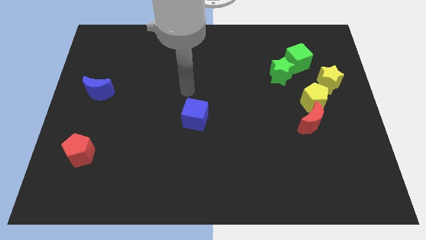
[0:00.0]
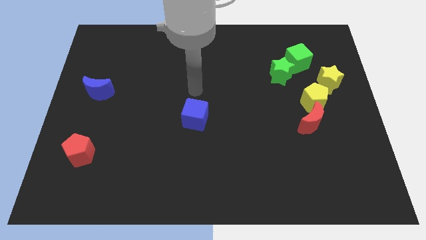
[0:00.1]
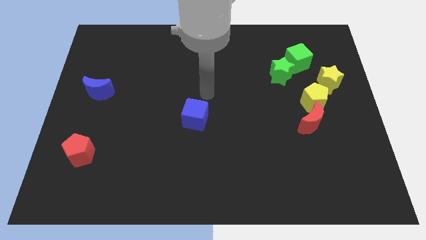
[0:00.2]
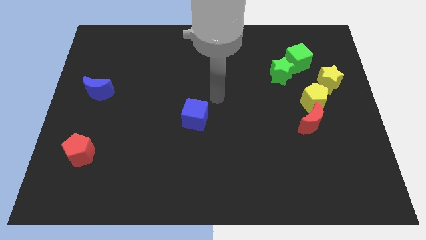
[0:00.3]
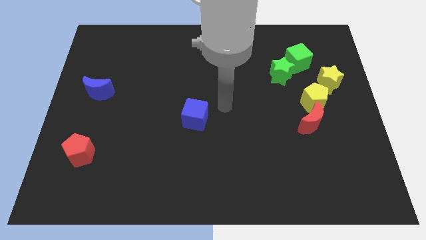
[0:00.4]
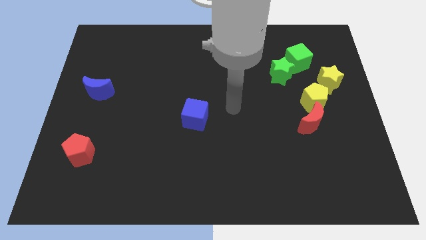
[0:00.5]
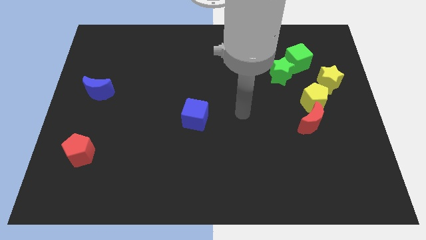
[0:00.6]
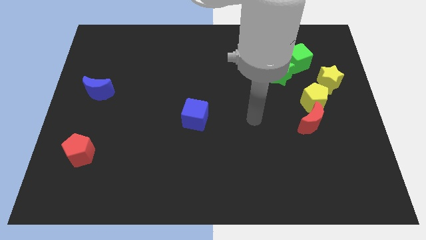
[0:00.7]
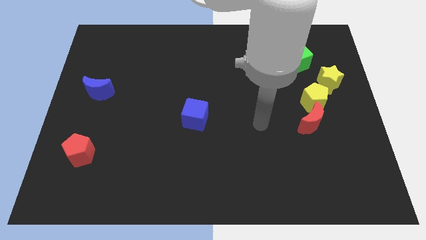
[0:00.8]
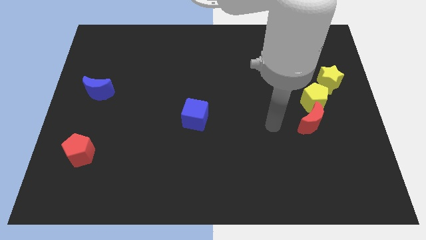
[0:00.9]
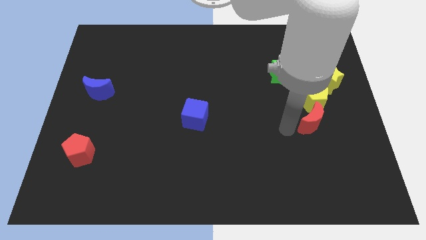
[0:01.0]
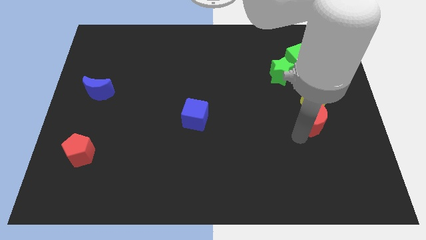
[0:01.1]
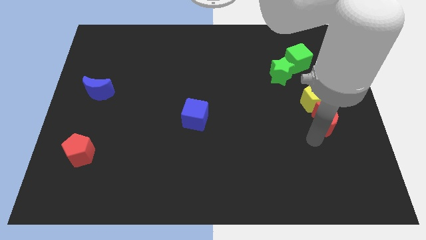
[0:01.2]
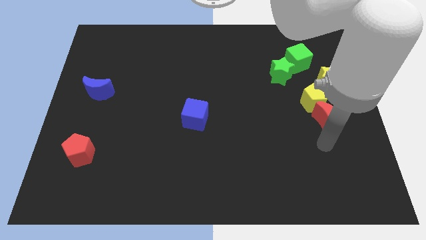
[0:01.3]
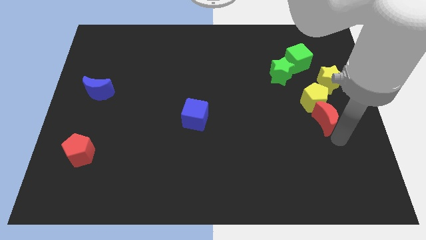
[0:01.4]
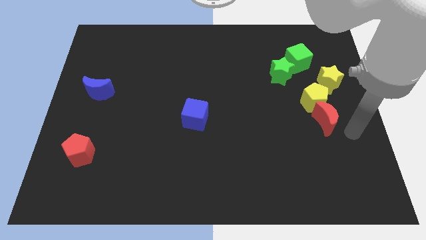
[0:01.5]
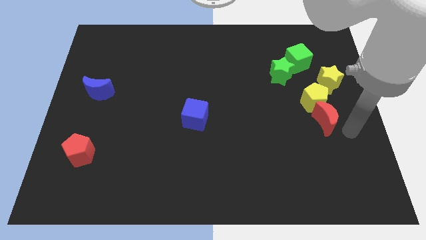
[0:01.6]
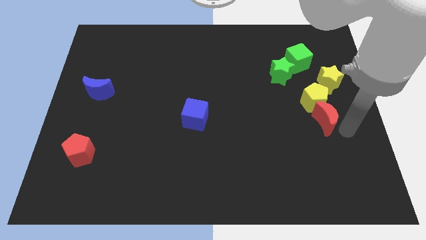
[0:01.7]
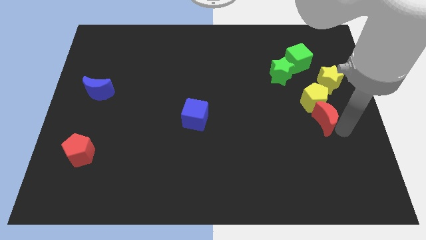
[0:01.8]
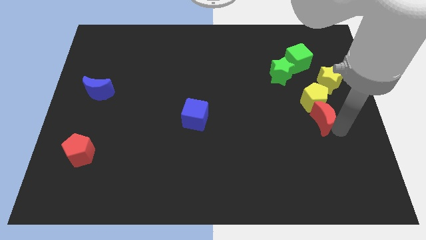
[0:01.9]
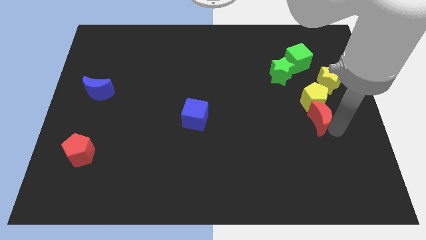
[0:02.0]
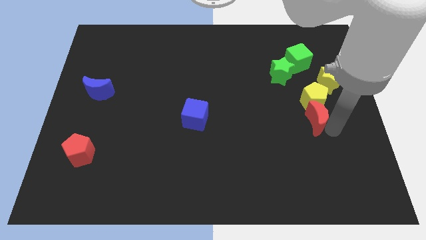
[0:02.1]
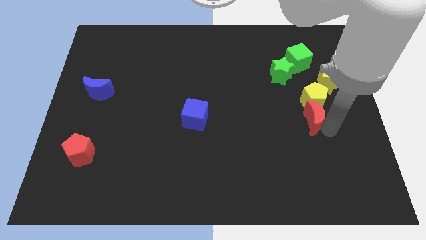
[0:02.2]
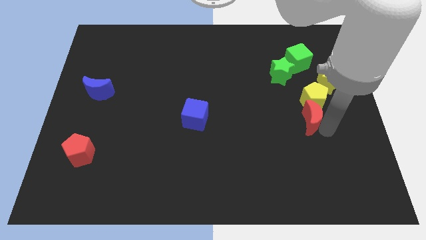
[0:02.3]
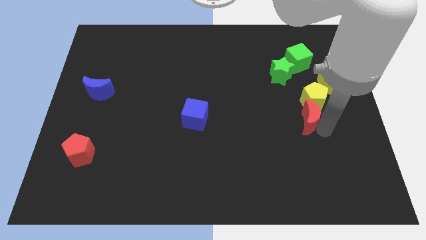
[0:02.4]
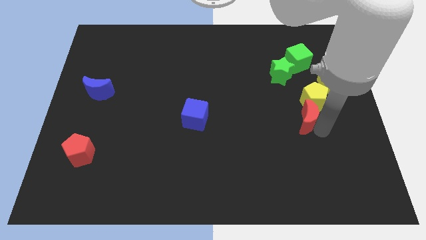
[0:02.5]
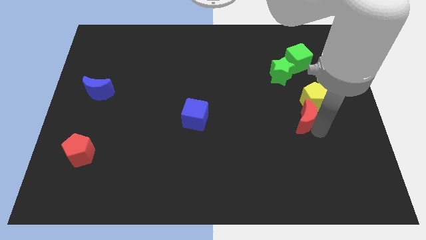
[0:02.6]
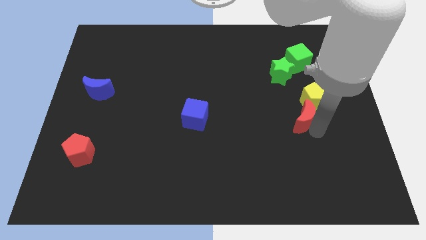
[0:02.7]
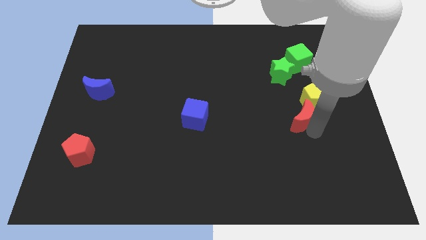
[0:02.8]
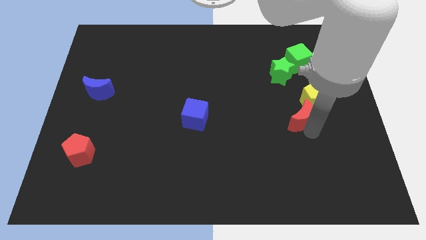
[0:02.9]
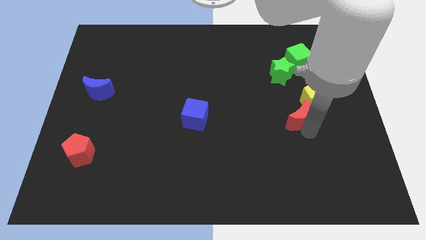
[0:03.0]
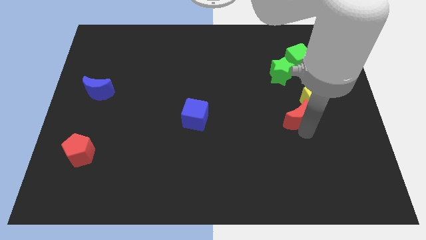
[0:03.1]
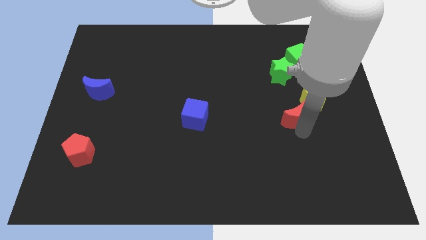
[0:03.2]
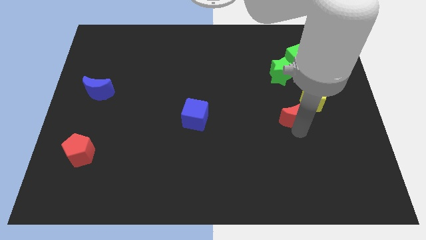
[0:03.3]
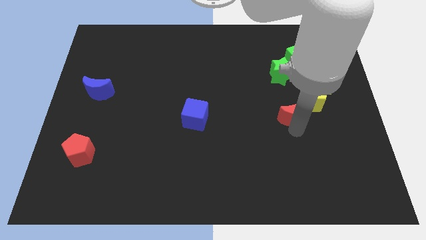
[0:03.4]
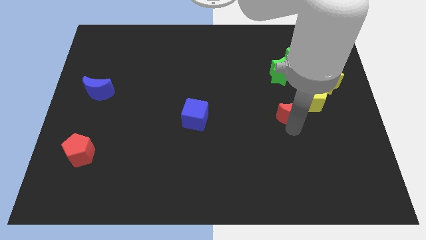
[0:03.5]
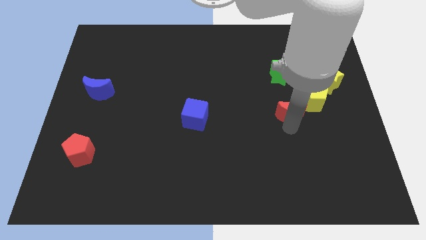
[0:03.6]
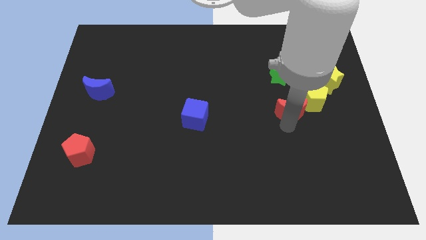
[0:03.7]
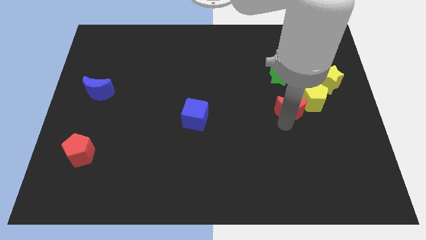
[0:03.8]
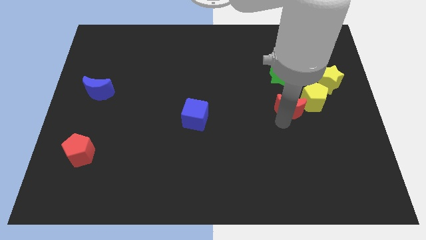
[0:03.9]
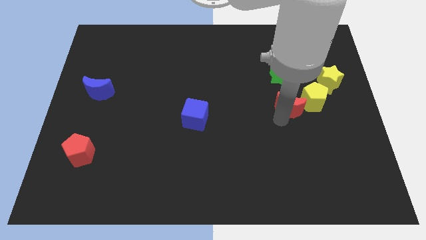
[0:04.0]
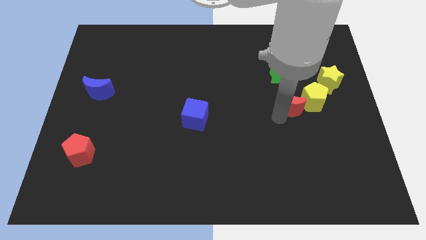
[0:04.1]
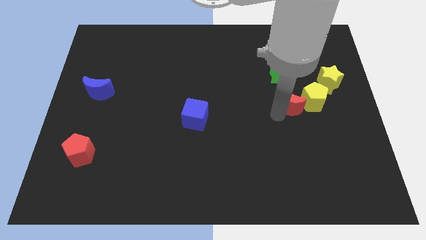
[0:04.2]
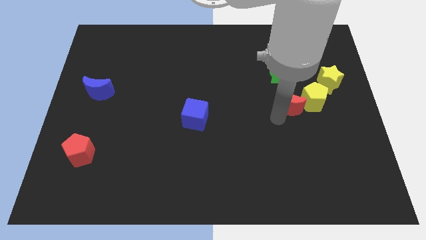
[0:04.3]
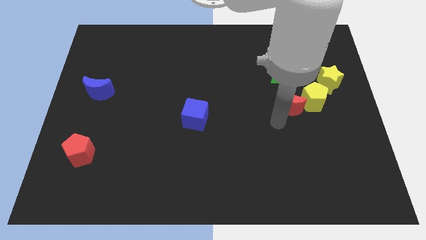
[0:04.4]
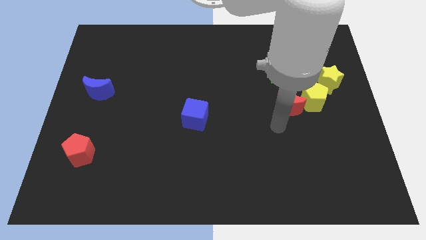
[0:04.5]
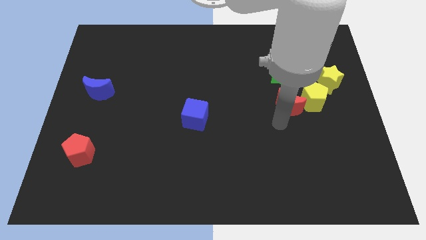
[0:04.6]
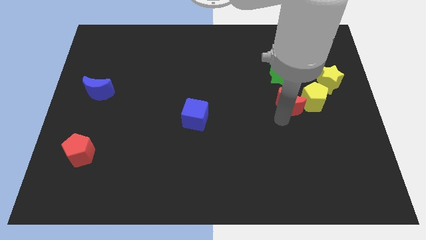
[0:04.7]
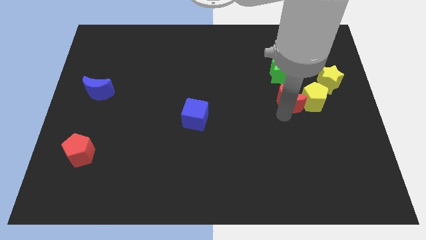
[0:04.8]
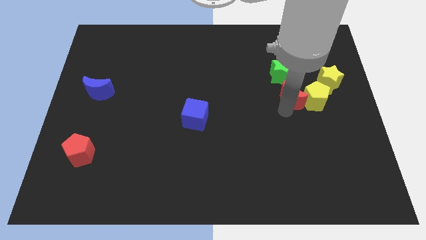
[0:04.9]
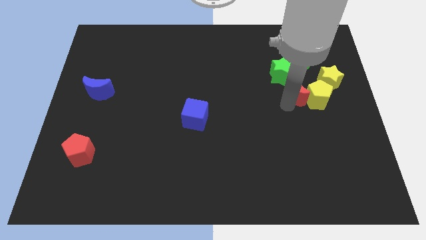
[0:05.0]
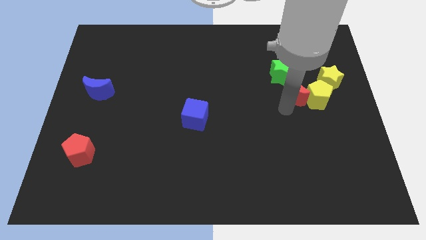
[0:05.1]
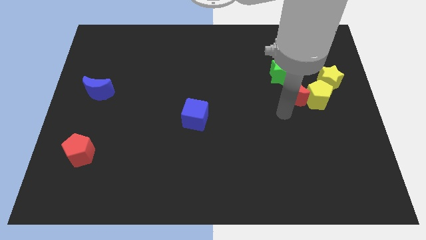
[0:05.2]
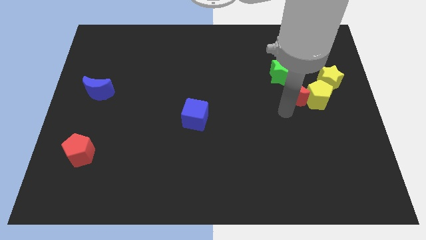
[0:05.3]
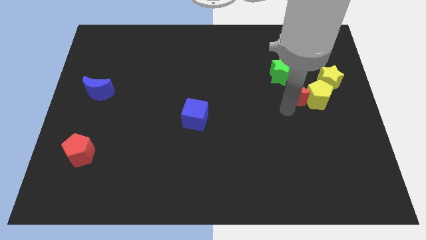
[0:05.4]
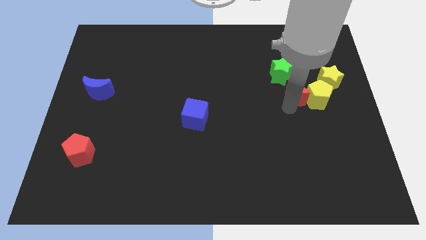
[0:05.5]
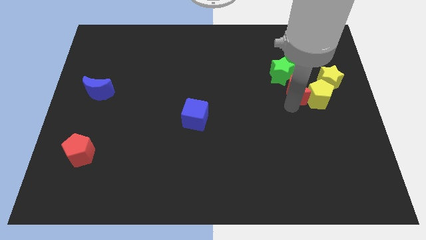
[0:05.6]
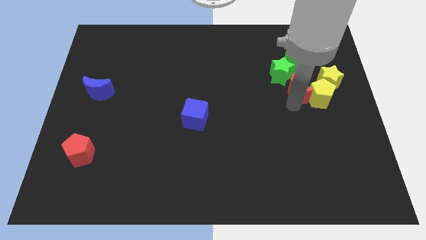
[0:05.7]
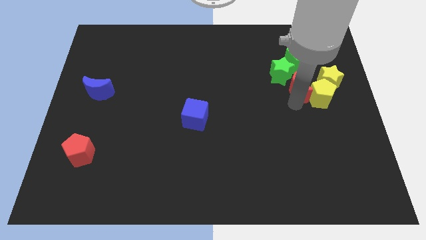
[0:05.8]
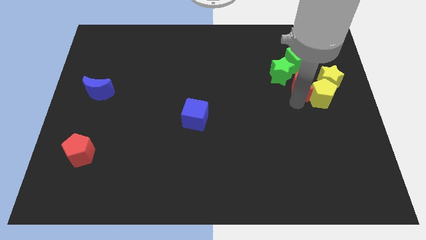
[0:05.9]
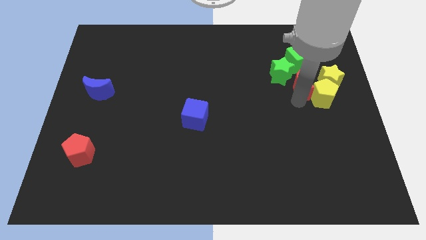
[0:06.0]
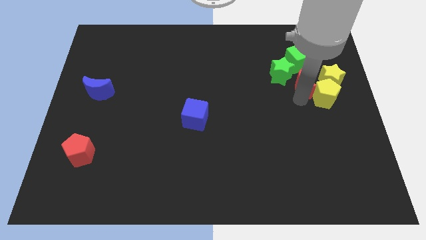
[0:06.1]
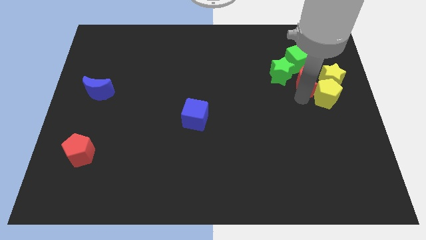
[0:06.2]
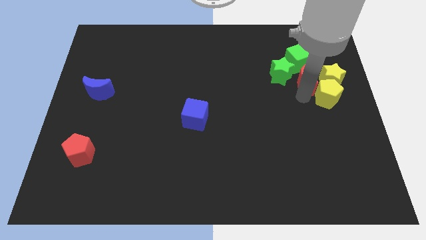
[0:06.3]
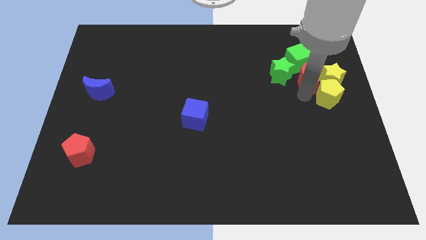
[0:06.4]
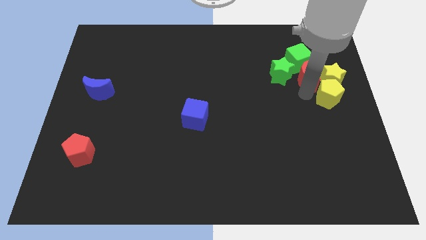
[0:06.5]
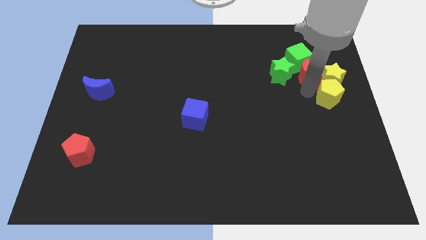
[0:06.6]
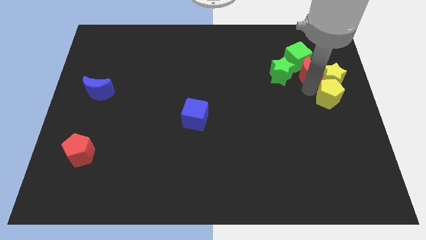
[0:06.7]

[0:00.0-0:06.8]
push the red moon diagonally up and to the right of the green star
